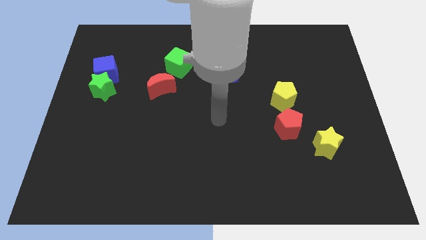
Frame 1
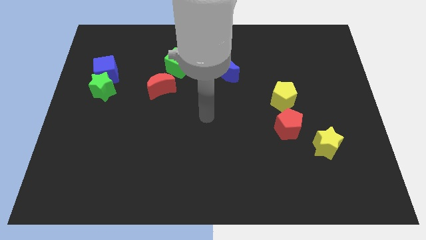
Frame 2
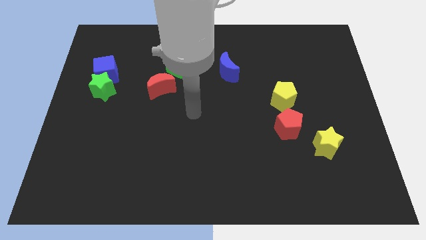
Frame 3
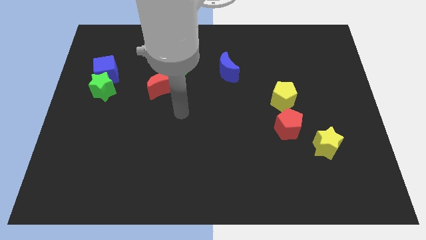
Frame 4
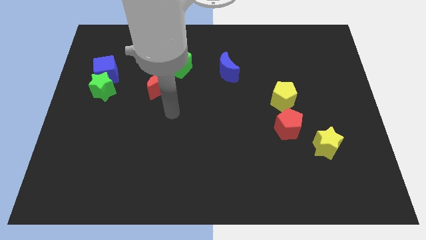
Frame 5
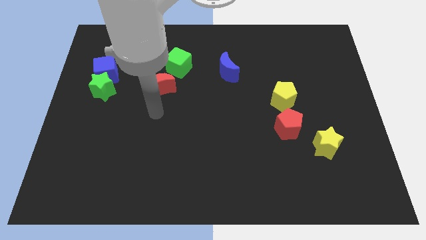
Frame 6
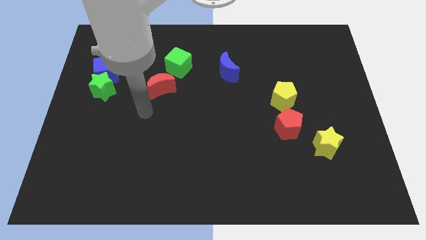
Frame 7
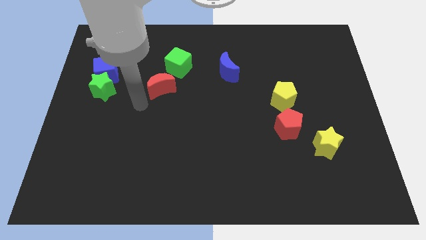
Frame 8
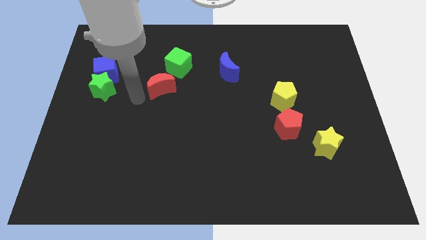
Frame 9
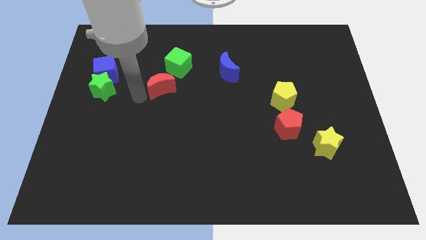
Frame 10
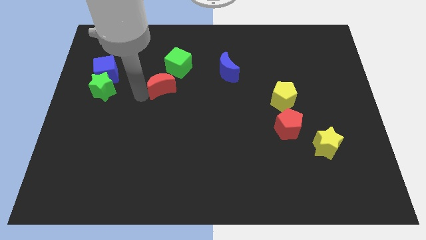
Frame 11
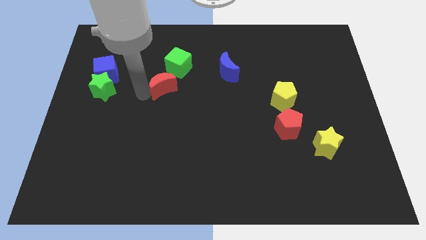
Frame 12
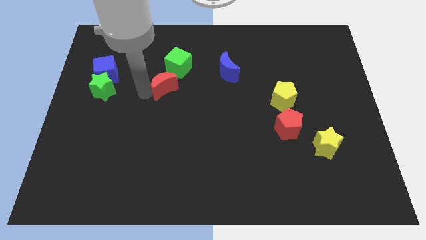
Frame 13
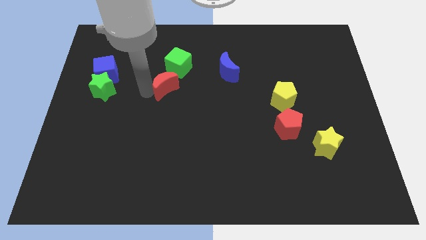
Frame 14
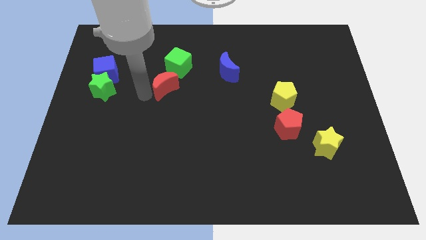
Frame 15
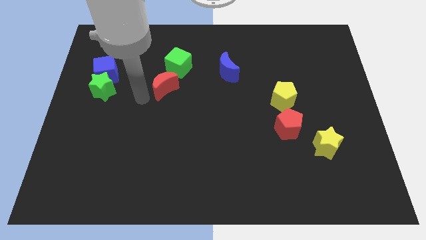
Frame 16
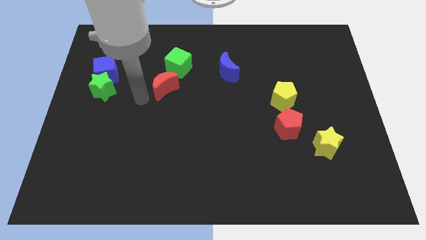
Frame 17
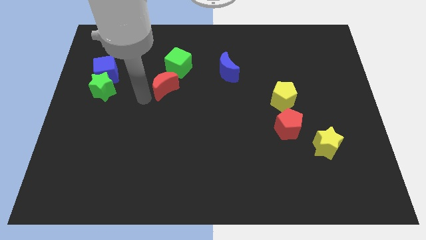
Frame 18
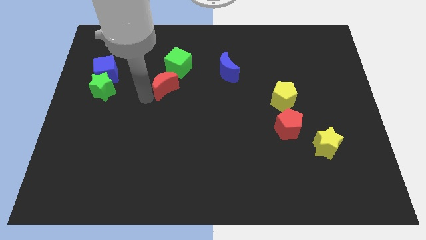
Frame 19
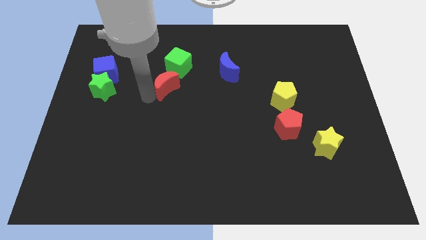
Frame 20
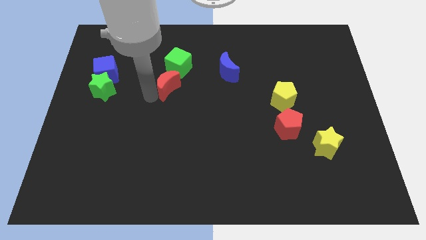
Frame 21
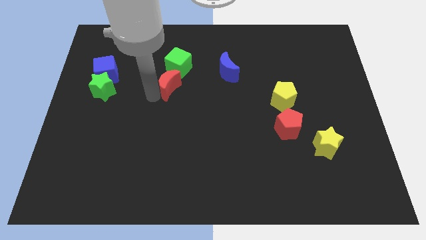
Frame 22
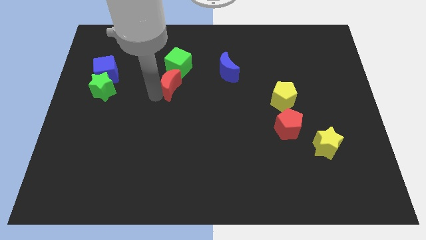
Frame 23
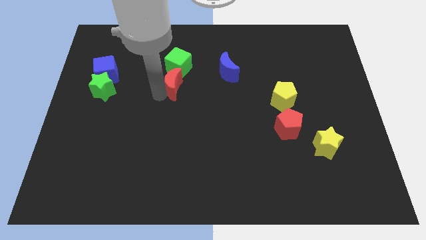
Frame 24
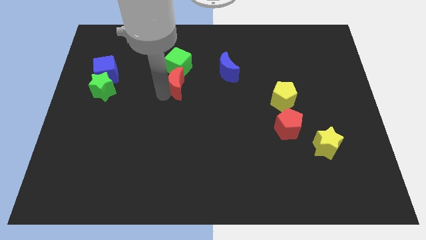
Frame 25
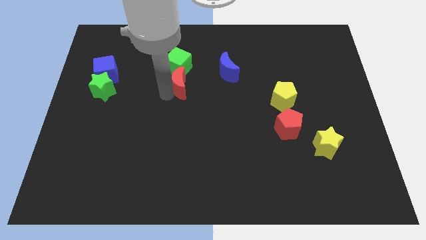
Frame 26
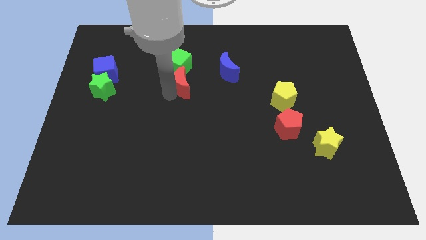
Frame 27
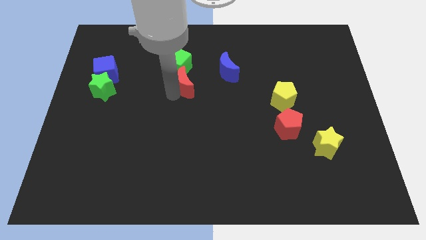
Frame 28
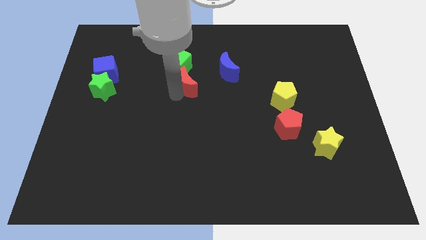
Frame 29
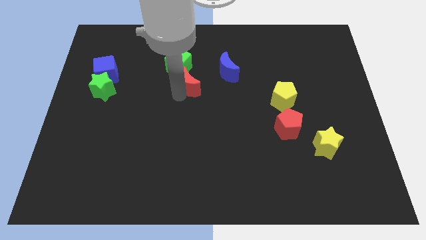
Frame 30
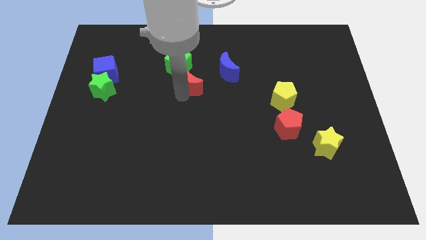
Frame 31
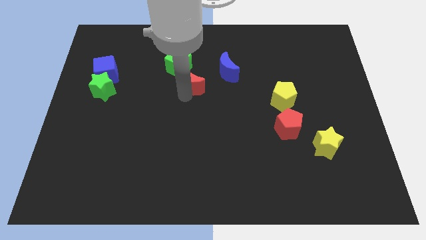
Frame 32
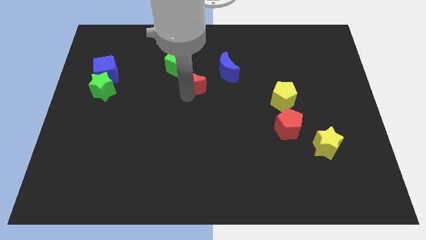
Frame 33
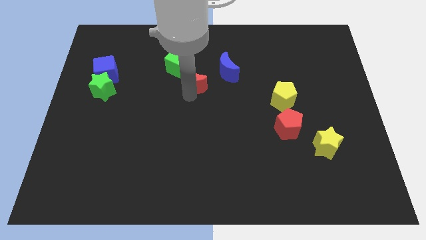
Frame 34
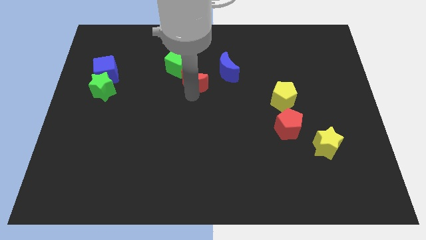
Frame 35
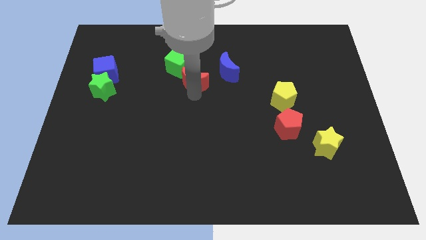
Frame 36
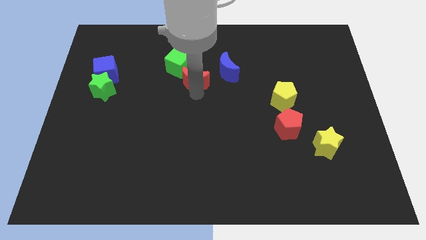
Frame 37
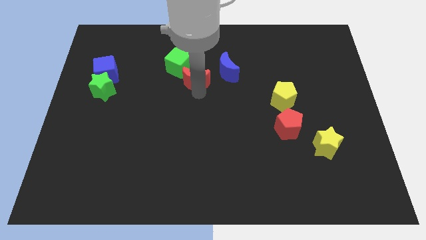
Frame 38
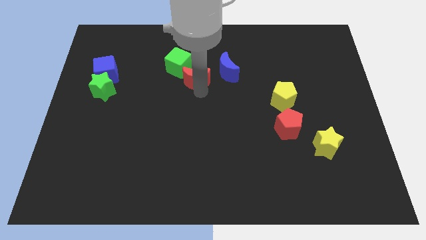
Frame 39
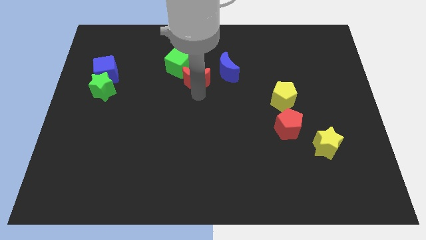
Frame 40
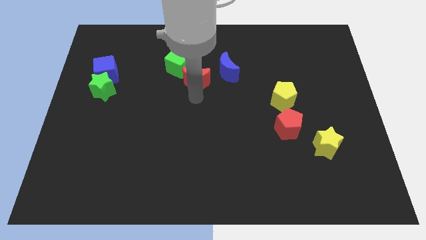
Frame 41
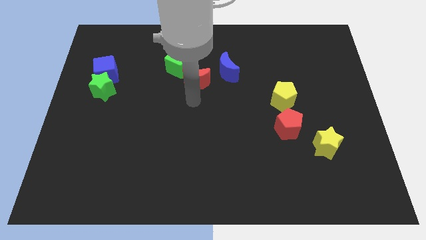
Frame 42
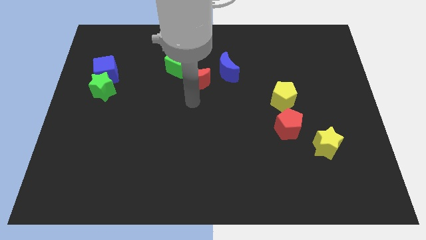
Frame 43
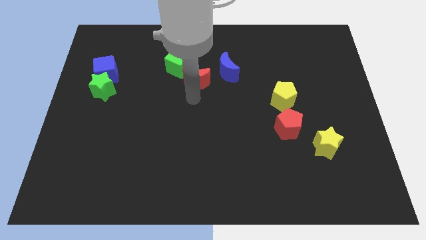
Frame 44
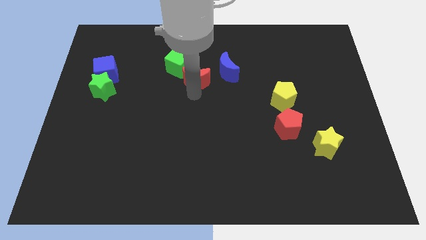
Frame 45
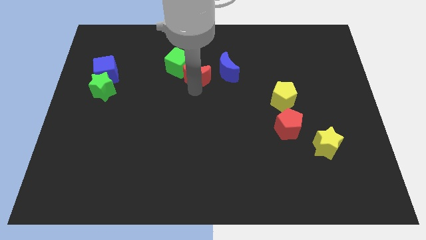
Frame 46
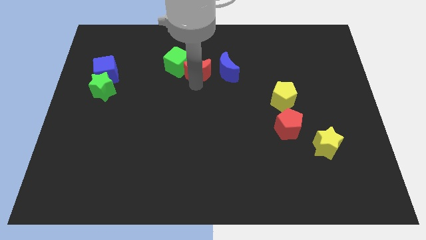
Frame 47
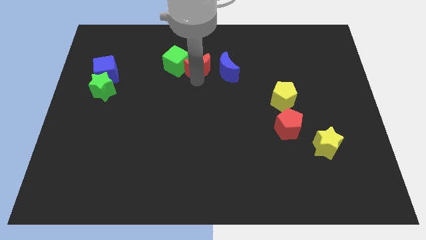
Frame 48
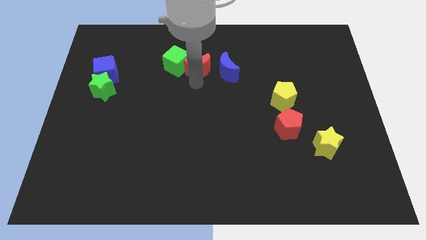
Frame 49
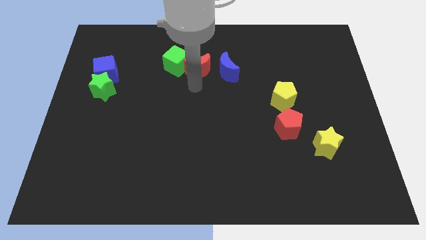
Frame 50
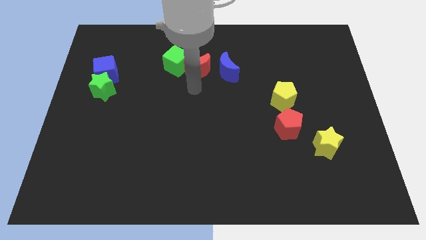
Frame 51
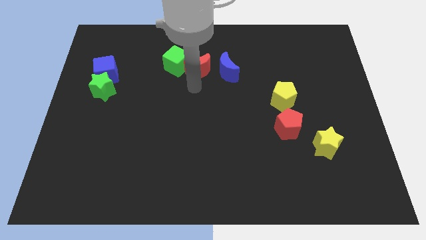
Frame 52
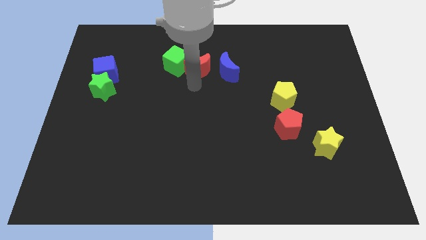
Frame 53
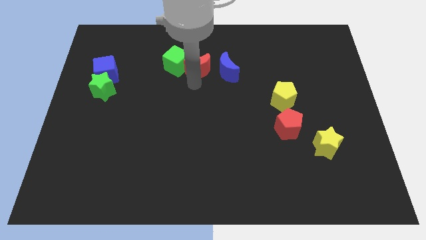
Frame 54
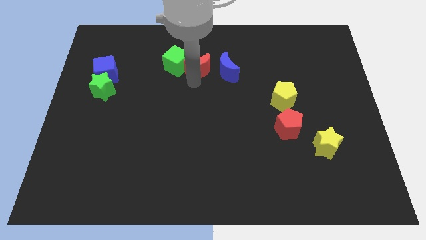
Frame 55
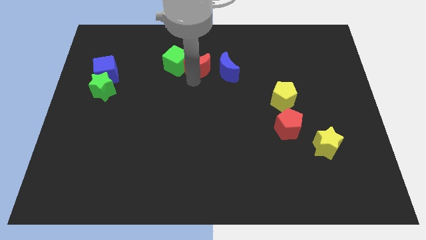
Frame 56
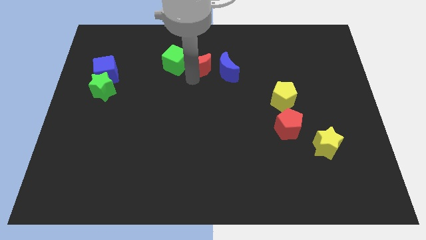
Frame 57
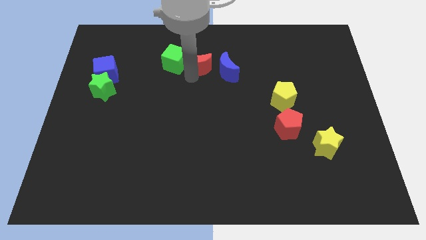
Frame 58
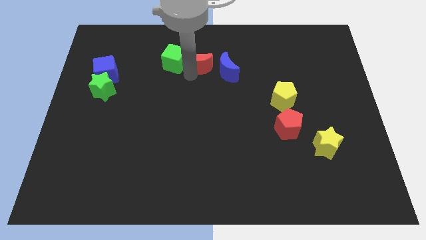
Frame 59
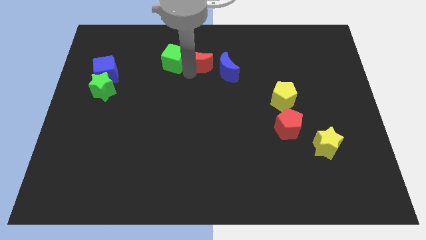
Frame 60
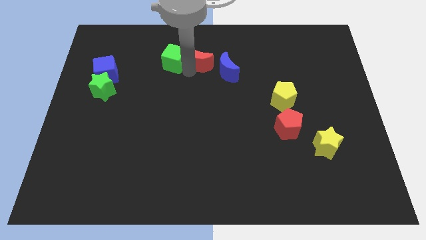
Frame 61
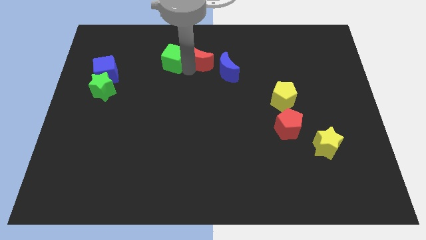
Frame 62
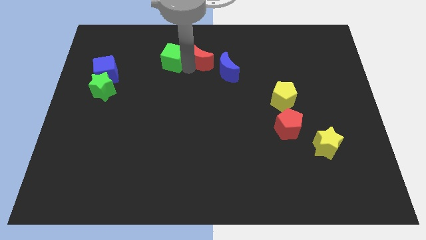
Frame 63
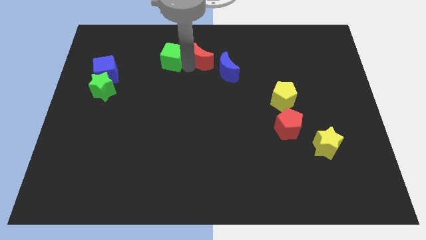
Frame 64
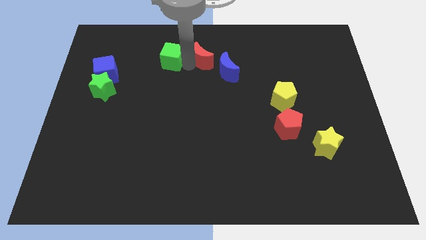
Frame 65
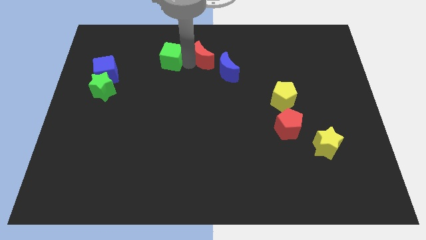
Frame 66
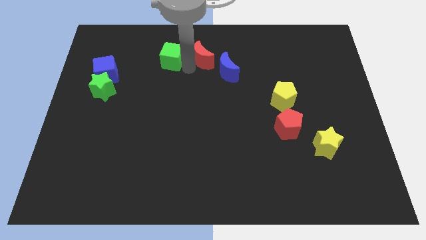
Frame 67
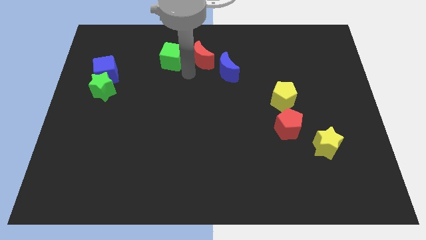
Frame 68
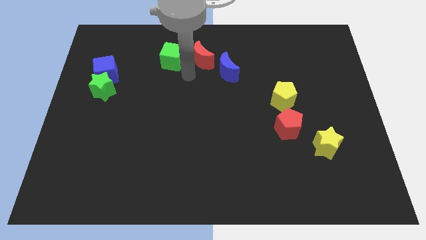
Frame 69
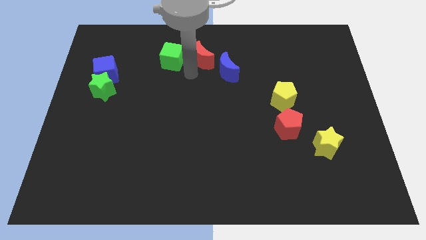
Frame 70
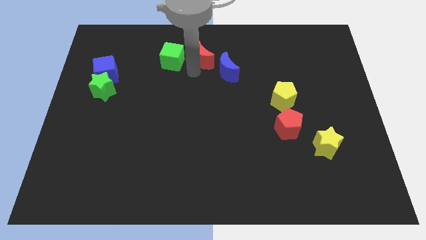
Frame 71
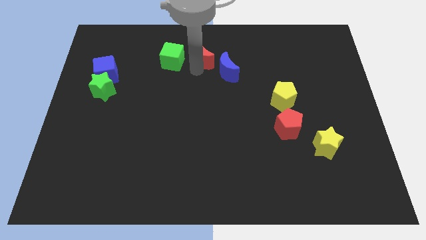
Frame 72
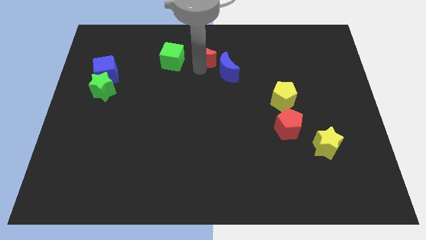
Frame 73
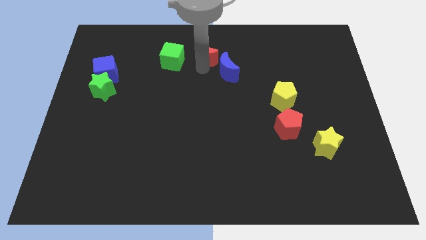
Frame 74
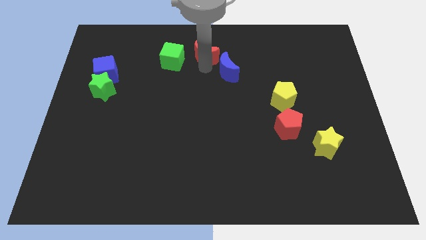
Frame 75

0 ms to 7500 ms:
slide the red moon to the towards your base
